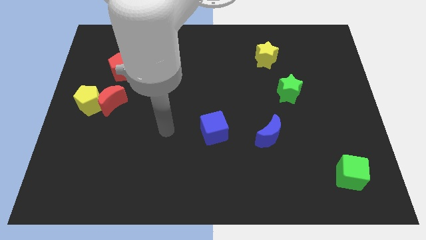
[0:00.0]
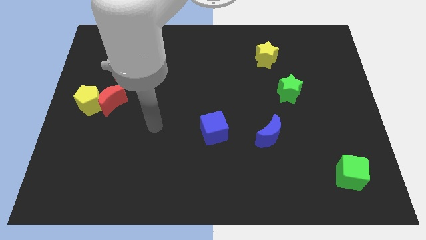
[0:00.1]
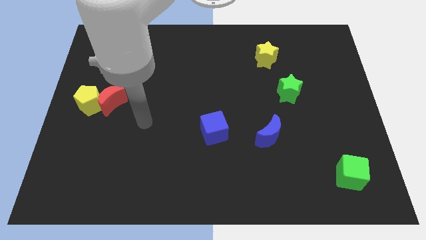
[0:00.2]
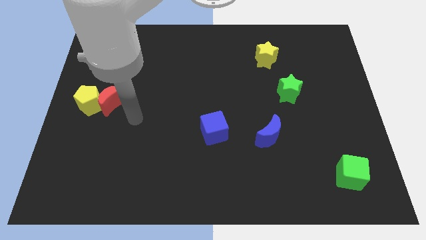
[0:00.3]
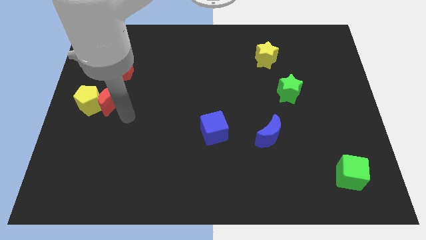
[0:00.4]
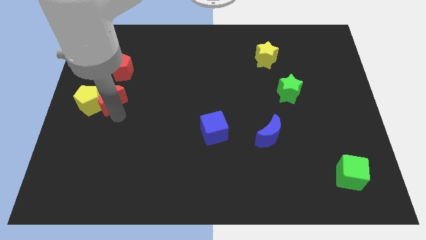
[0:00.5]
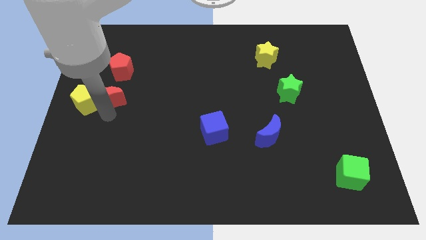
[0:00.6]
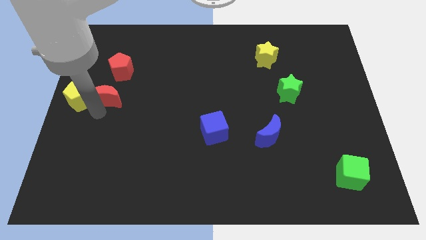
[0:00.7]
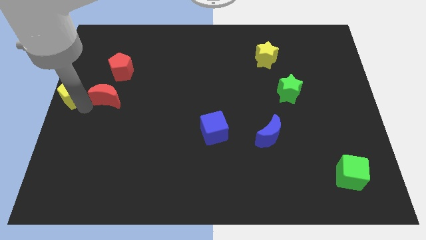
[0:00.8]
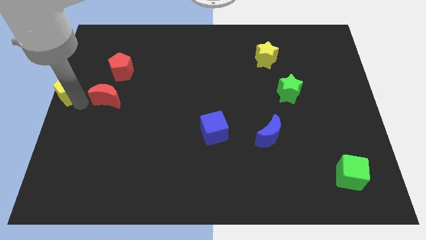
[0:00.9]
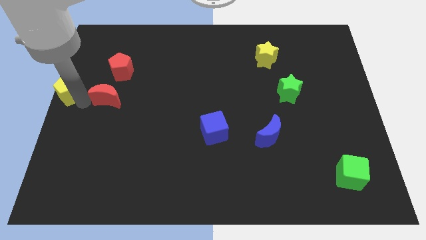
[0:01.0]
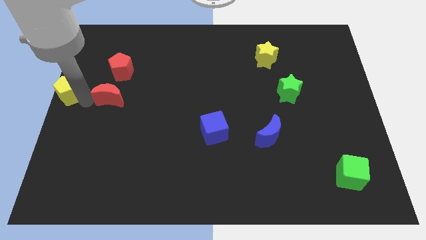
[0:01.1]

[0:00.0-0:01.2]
pull the red moon apart from the yellow pentagon

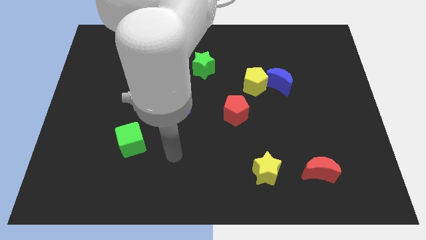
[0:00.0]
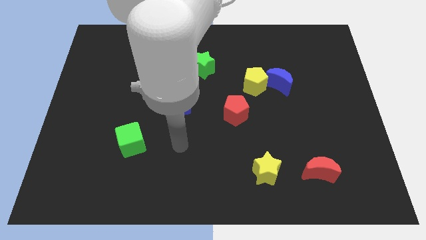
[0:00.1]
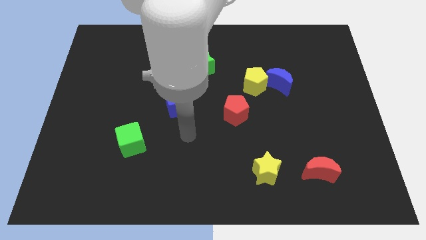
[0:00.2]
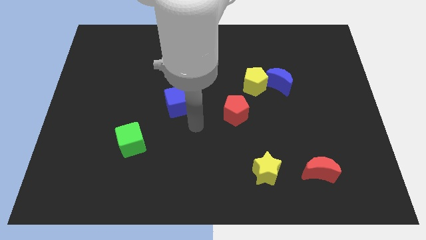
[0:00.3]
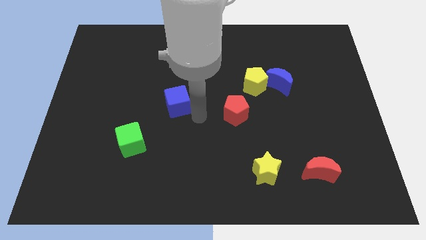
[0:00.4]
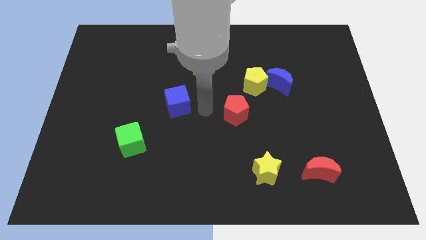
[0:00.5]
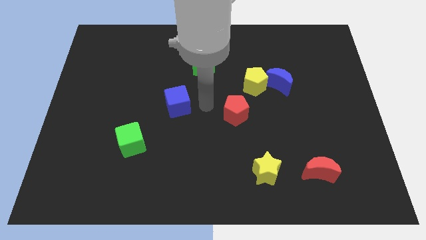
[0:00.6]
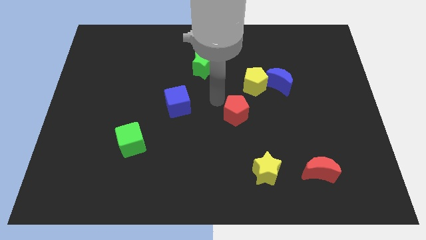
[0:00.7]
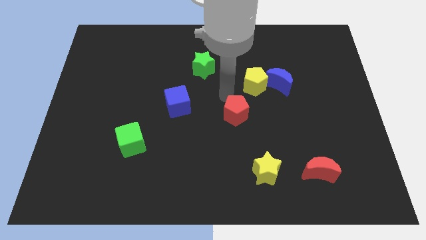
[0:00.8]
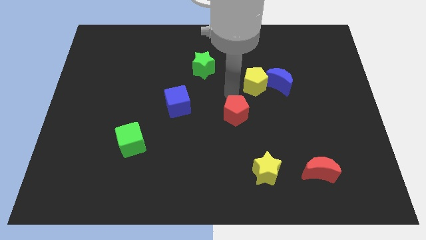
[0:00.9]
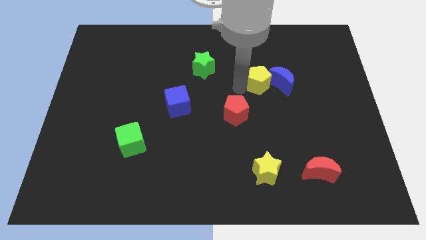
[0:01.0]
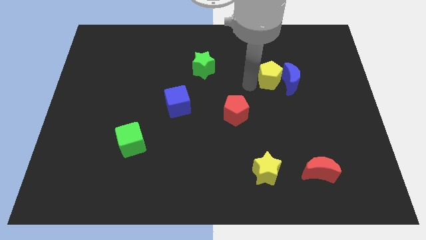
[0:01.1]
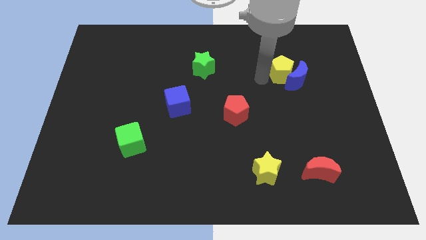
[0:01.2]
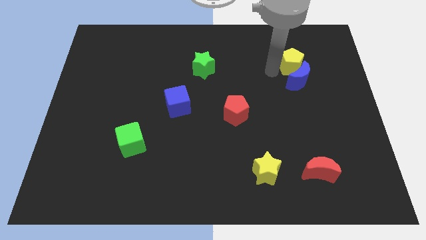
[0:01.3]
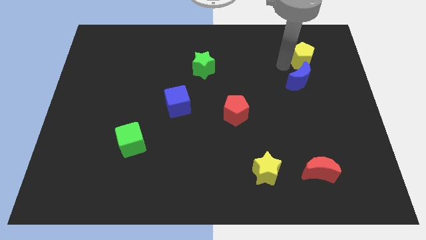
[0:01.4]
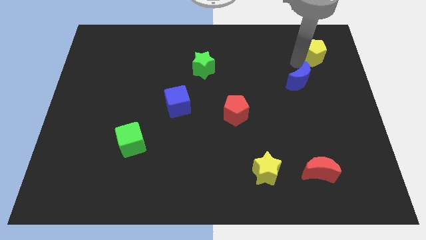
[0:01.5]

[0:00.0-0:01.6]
pull the blue moon apart from the yellow pentagon

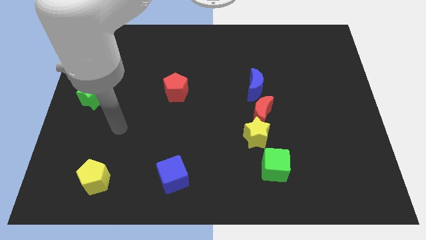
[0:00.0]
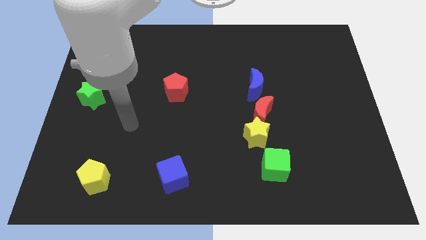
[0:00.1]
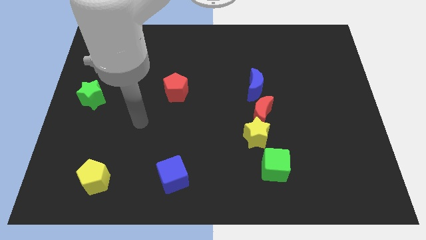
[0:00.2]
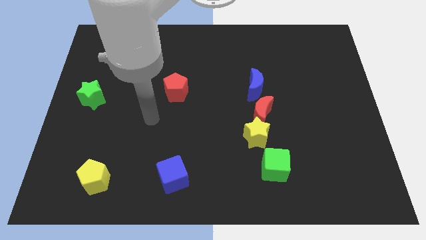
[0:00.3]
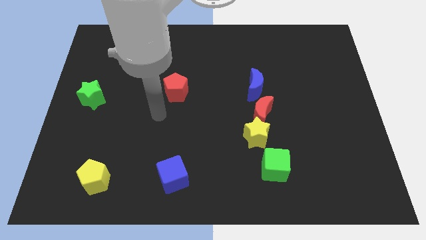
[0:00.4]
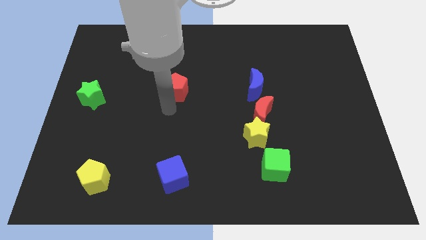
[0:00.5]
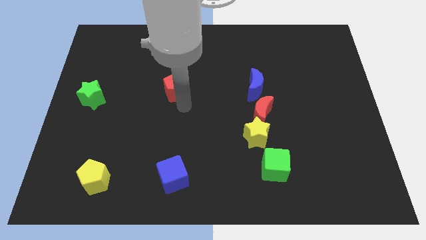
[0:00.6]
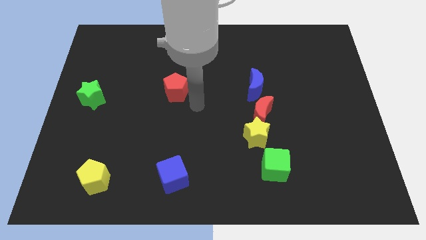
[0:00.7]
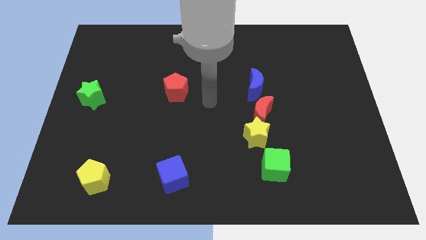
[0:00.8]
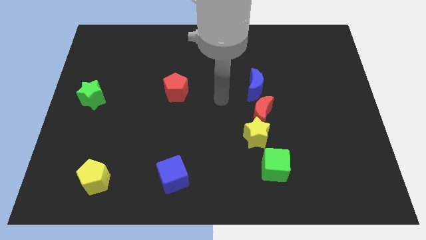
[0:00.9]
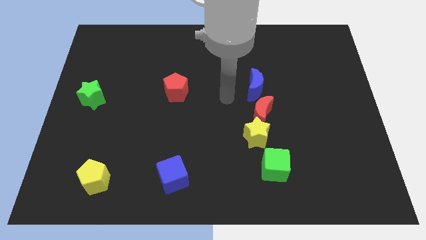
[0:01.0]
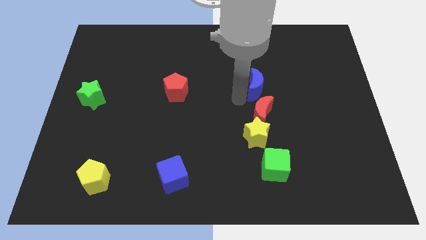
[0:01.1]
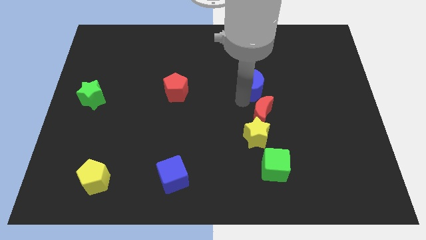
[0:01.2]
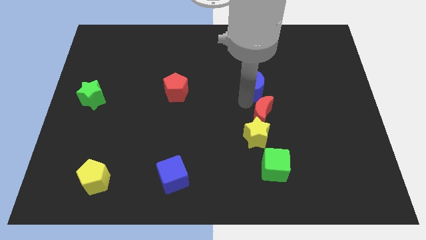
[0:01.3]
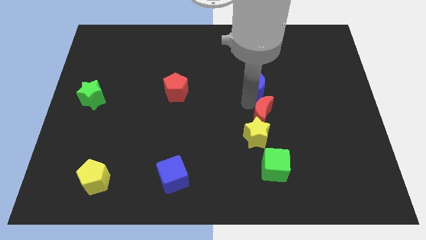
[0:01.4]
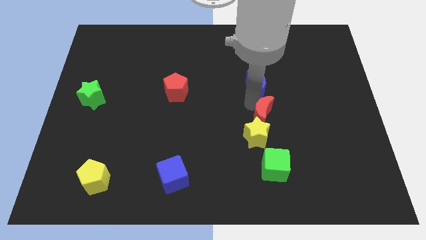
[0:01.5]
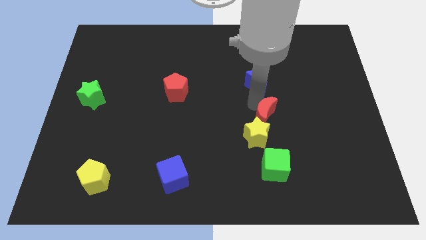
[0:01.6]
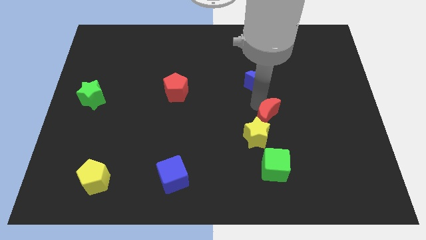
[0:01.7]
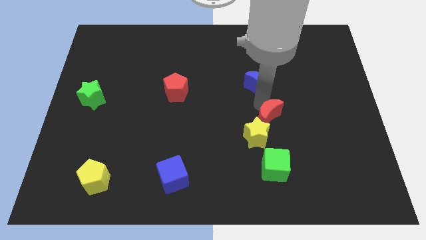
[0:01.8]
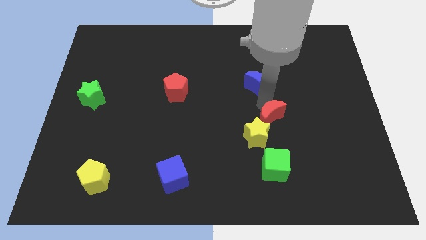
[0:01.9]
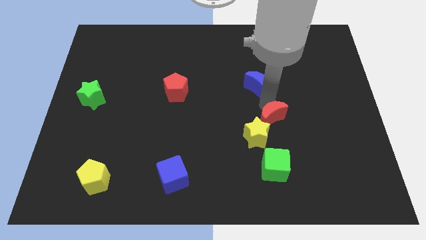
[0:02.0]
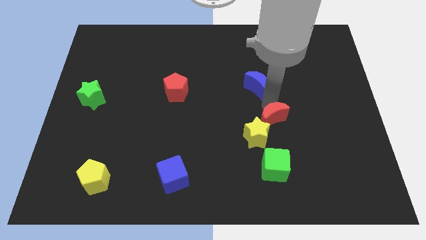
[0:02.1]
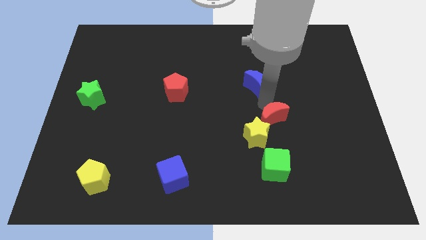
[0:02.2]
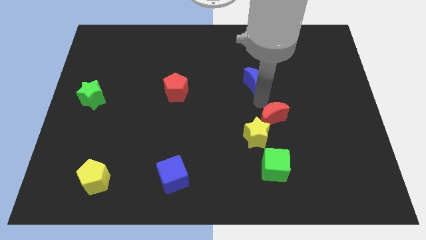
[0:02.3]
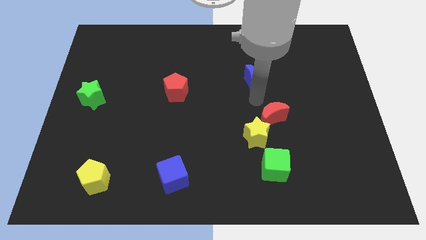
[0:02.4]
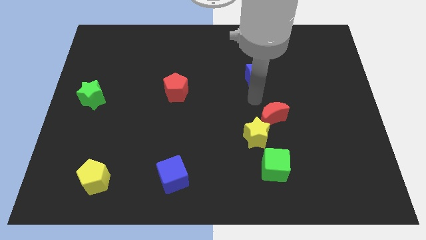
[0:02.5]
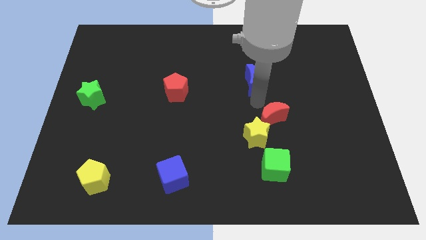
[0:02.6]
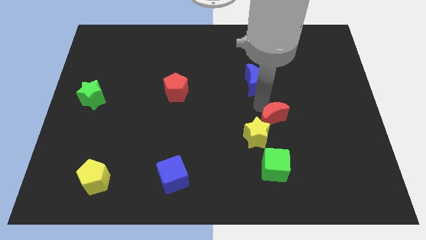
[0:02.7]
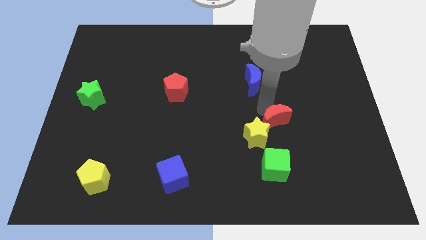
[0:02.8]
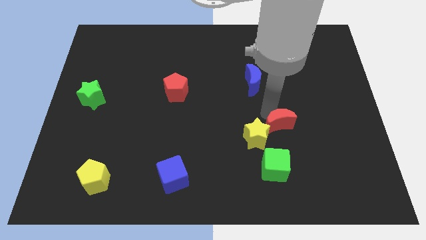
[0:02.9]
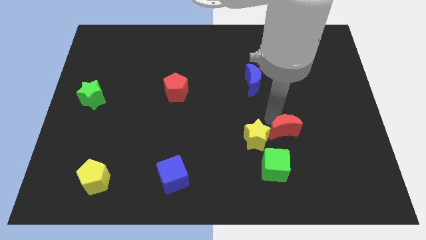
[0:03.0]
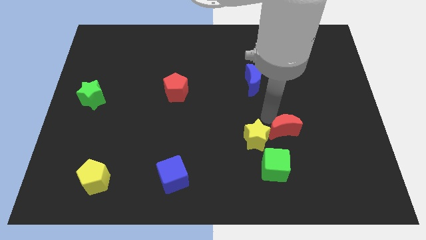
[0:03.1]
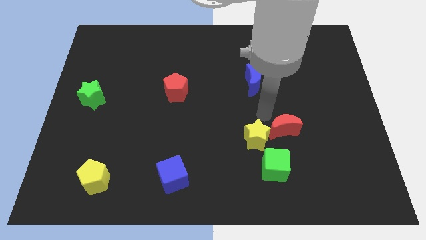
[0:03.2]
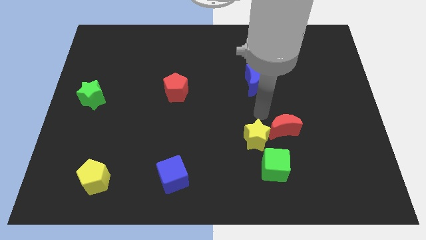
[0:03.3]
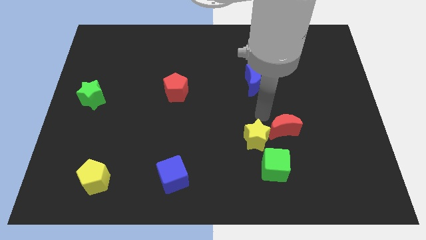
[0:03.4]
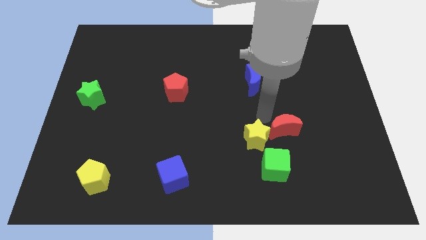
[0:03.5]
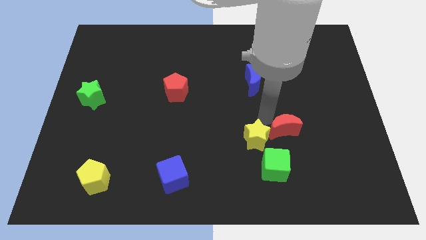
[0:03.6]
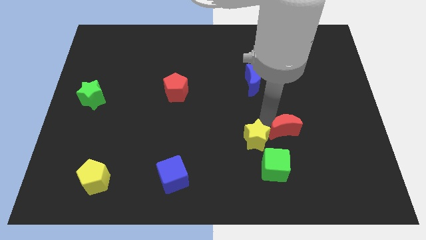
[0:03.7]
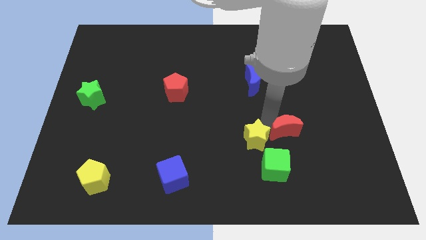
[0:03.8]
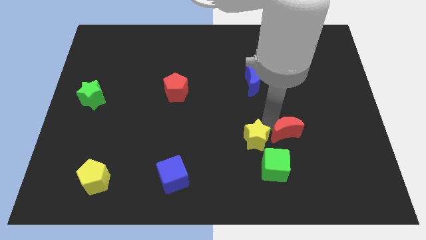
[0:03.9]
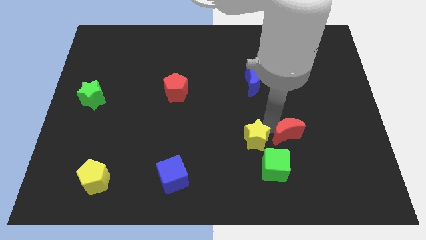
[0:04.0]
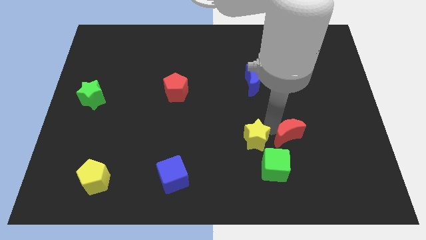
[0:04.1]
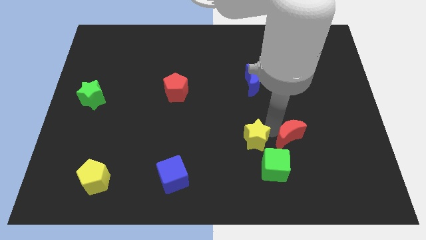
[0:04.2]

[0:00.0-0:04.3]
move the red moon away from the yellow star and blue moon

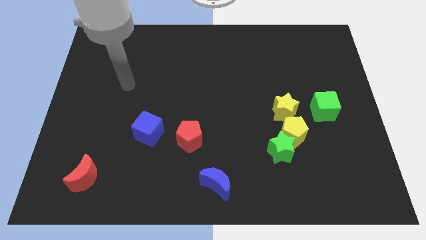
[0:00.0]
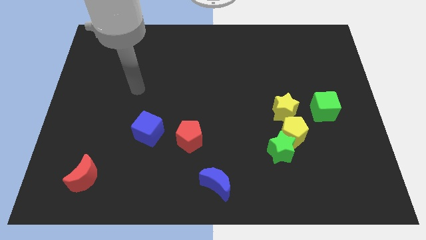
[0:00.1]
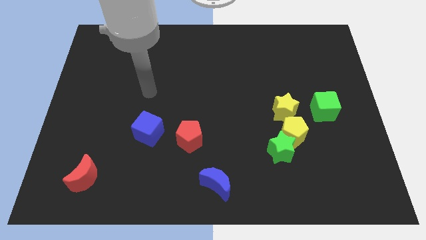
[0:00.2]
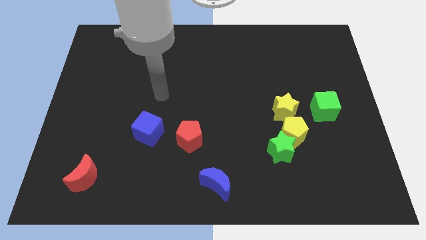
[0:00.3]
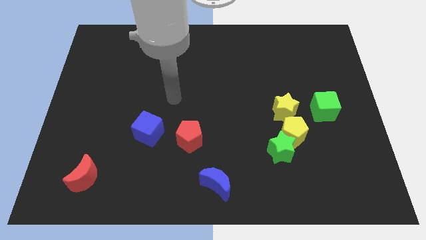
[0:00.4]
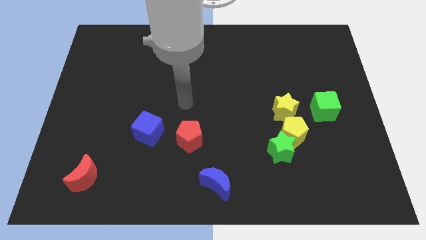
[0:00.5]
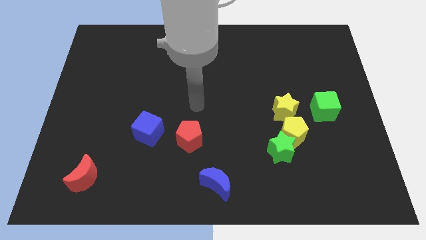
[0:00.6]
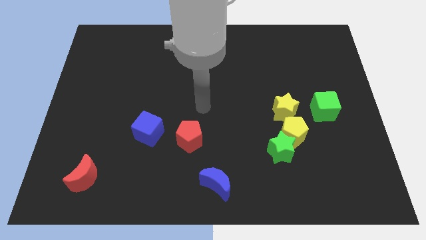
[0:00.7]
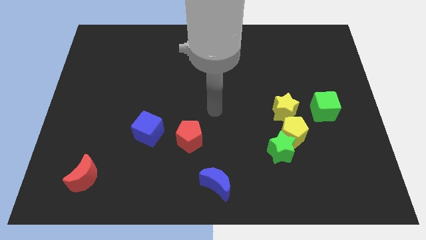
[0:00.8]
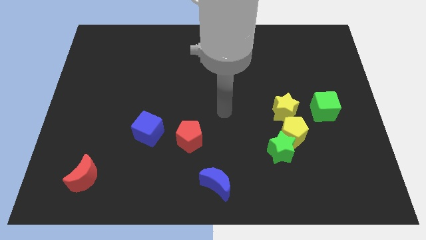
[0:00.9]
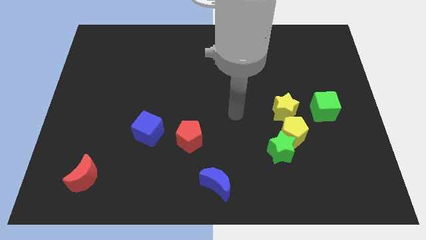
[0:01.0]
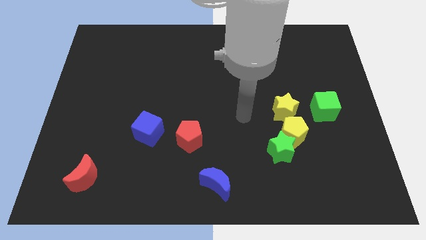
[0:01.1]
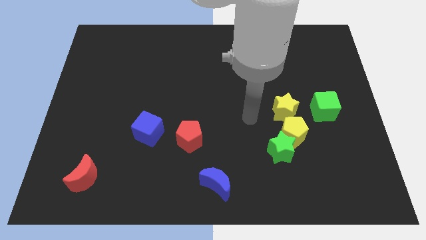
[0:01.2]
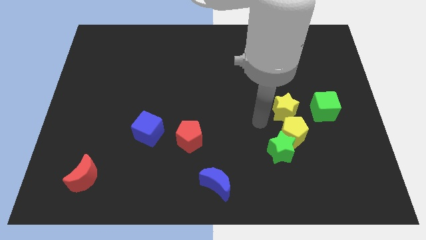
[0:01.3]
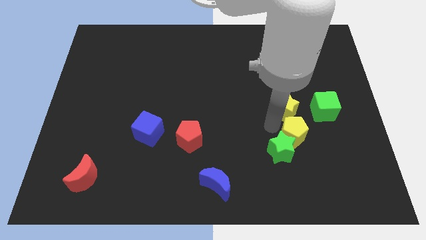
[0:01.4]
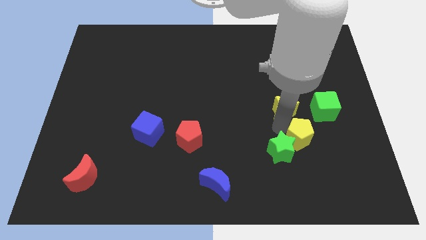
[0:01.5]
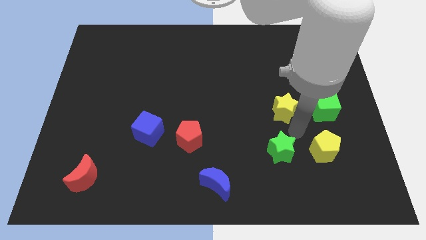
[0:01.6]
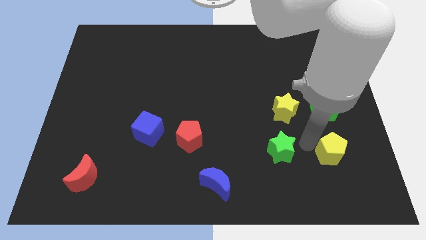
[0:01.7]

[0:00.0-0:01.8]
separate the green star from the yellow pentagon

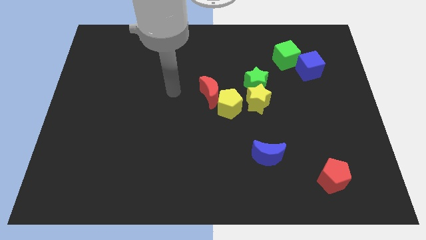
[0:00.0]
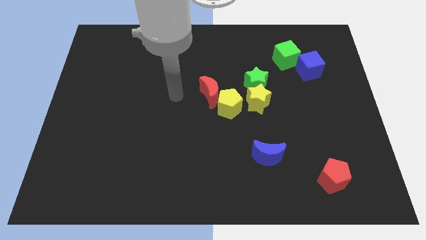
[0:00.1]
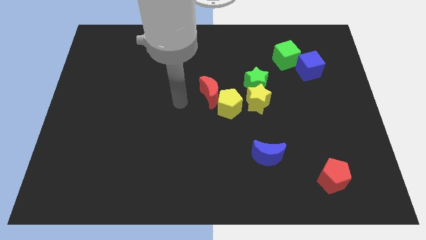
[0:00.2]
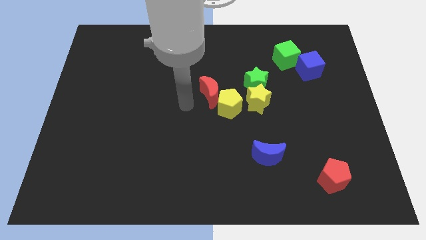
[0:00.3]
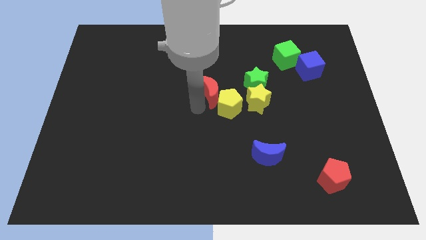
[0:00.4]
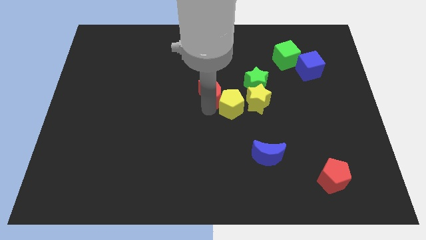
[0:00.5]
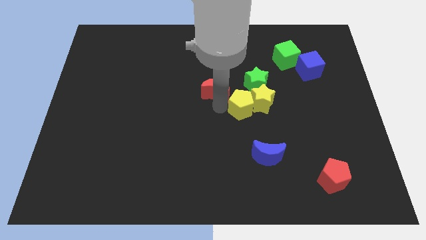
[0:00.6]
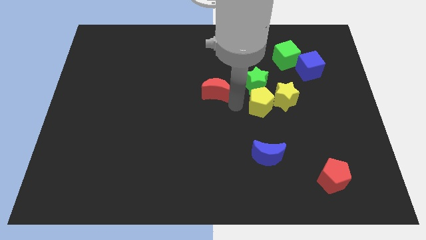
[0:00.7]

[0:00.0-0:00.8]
separate the red moon from the yellow pentagon
